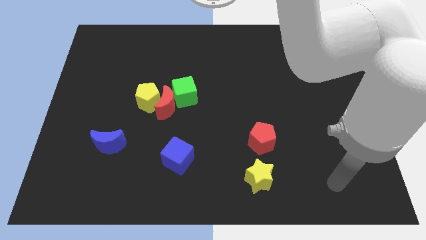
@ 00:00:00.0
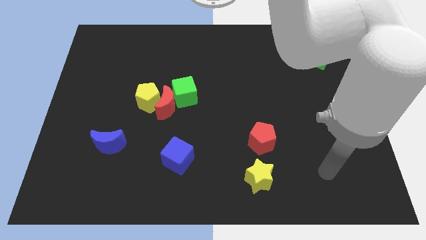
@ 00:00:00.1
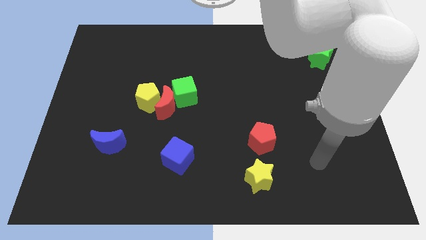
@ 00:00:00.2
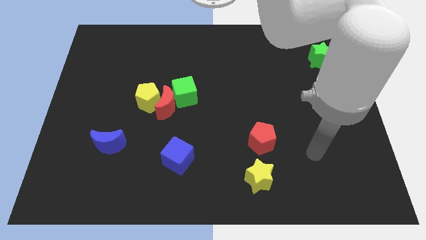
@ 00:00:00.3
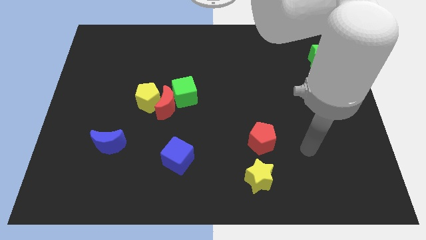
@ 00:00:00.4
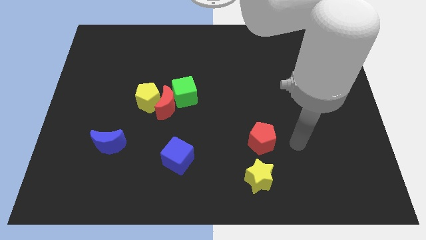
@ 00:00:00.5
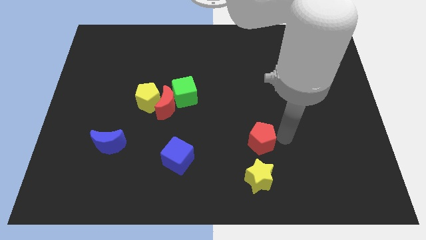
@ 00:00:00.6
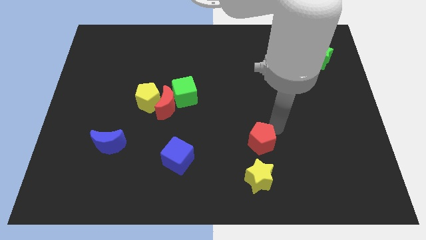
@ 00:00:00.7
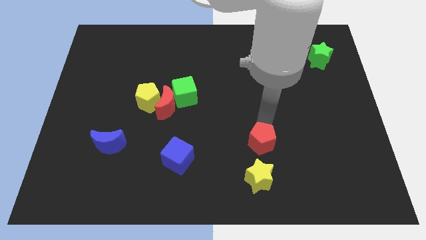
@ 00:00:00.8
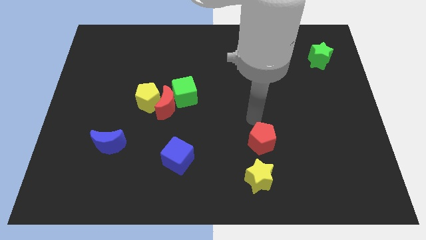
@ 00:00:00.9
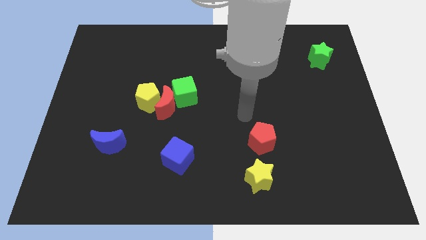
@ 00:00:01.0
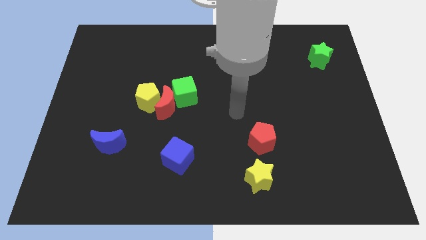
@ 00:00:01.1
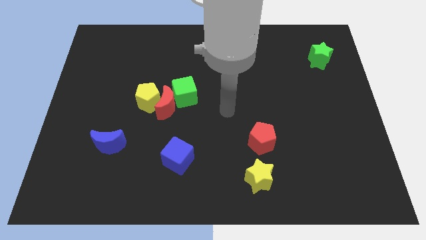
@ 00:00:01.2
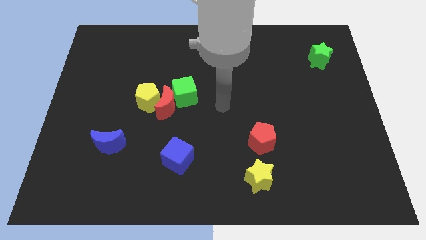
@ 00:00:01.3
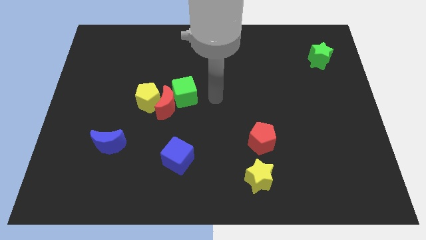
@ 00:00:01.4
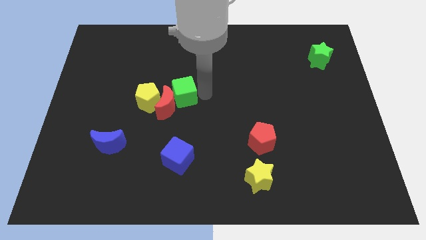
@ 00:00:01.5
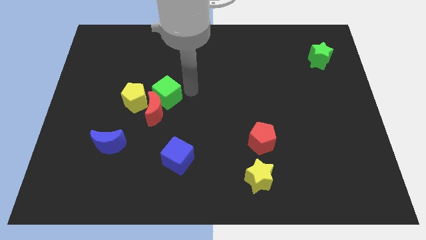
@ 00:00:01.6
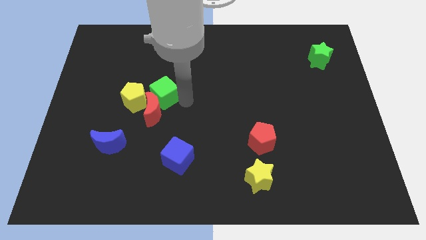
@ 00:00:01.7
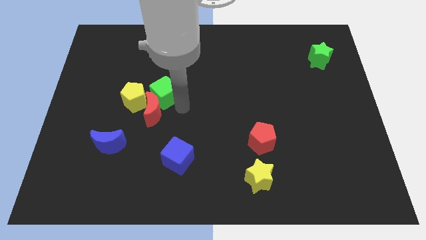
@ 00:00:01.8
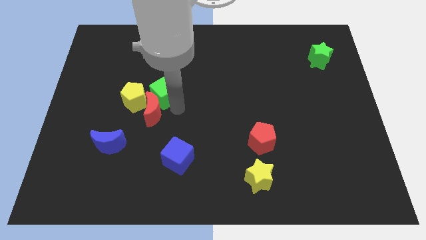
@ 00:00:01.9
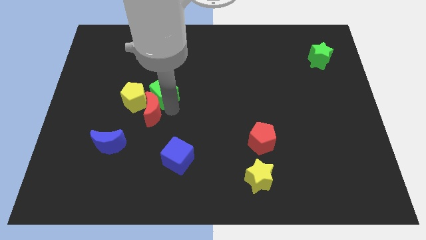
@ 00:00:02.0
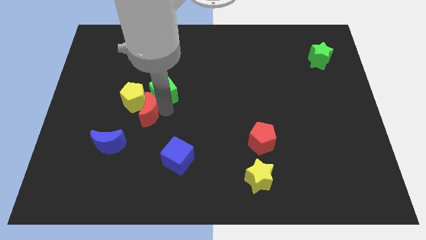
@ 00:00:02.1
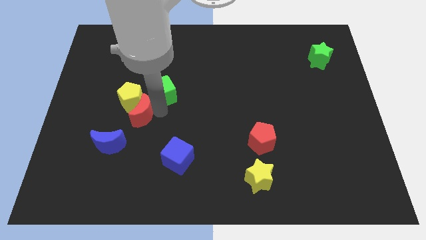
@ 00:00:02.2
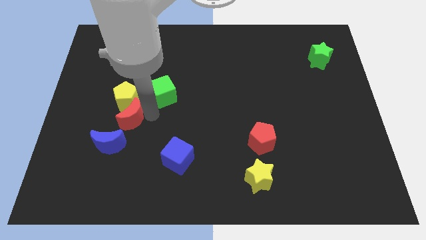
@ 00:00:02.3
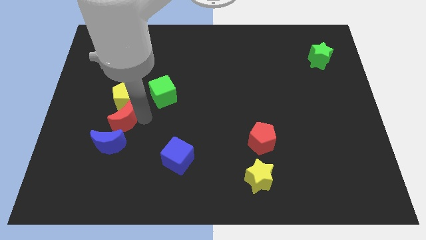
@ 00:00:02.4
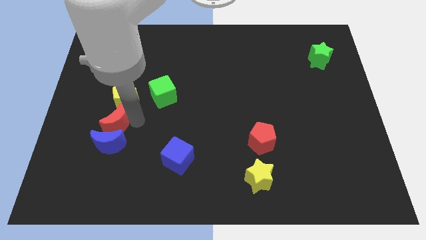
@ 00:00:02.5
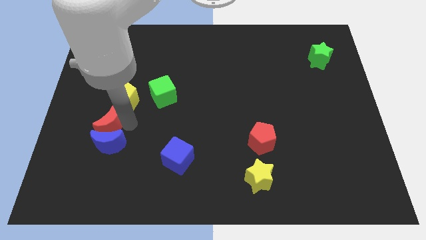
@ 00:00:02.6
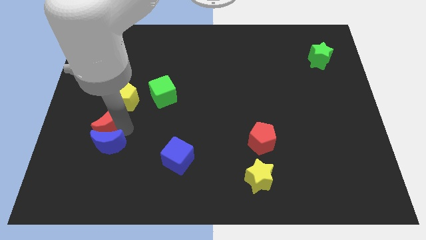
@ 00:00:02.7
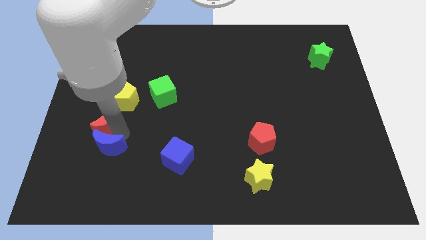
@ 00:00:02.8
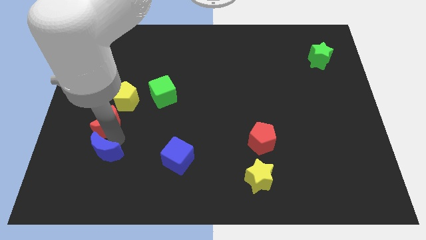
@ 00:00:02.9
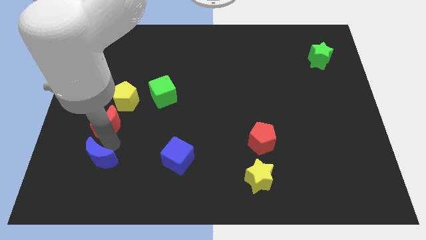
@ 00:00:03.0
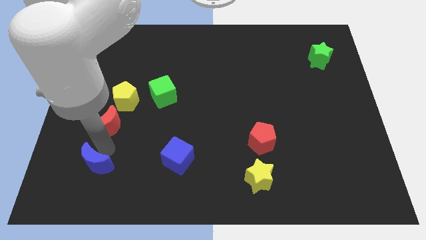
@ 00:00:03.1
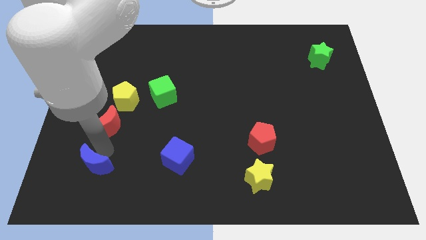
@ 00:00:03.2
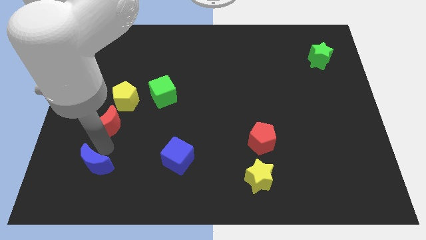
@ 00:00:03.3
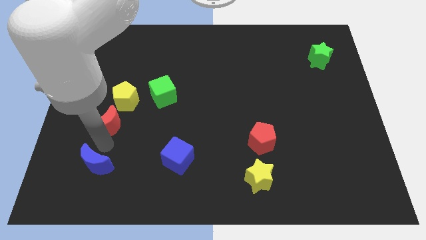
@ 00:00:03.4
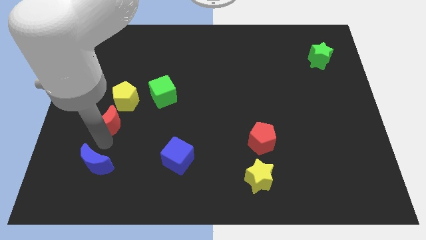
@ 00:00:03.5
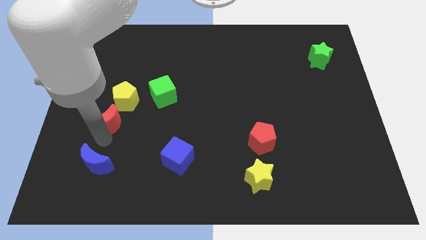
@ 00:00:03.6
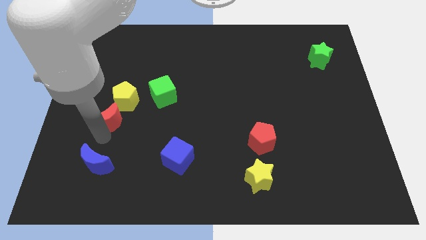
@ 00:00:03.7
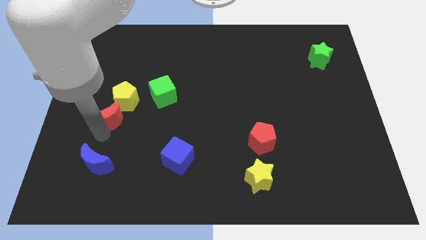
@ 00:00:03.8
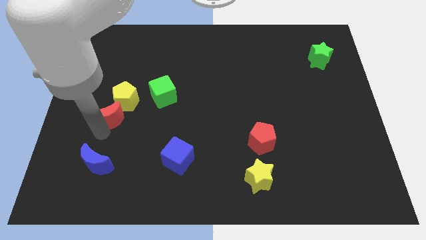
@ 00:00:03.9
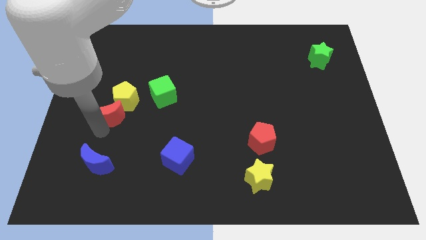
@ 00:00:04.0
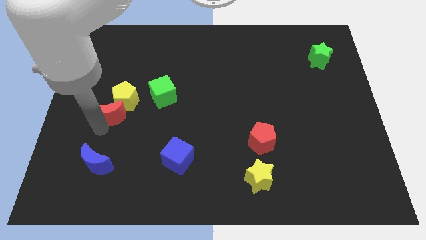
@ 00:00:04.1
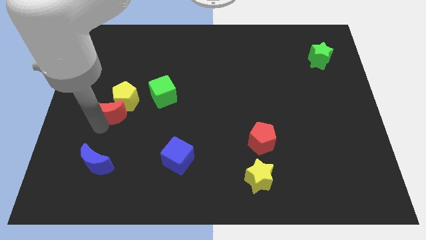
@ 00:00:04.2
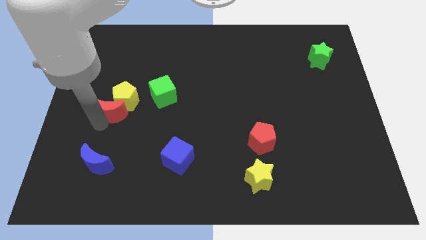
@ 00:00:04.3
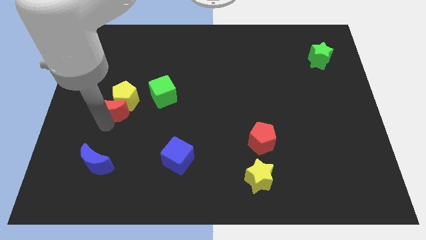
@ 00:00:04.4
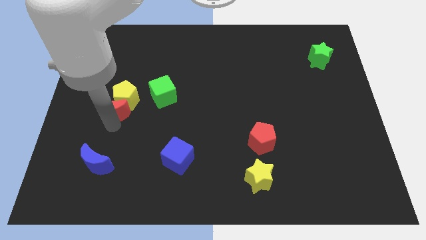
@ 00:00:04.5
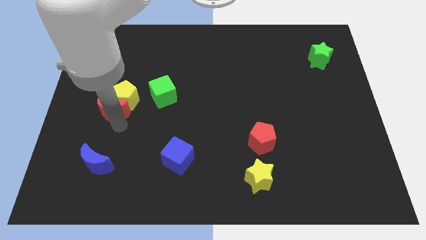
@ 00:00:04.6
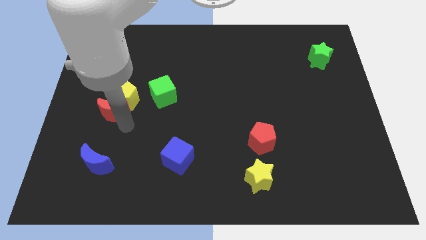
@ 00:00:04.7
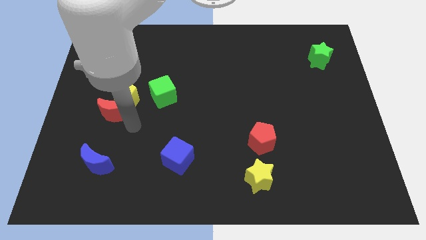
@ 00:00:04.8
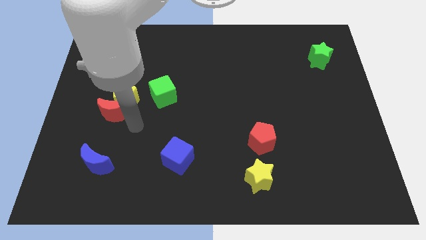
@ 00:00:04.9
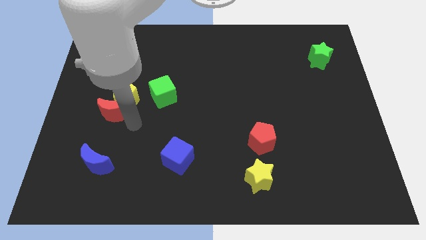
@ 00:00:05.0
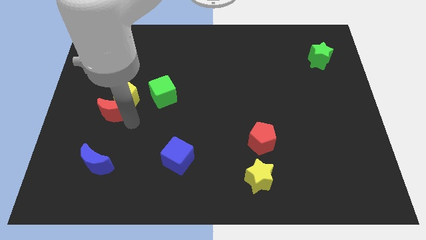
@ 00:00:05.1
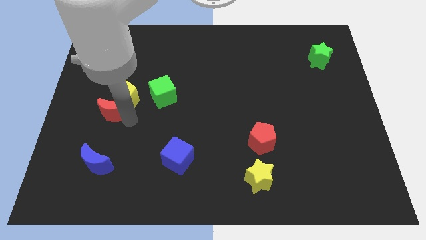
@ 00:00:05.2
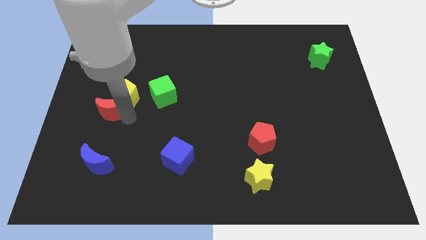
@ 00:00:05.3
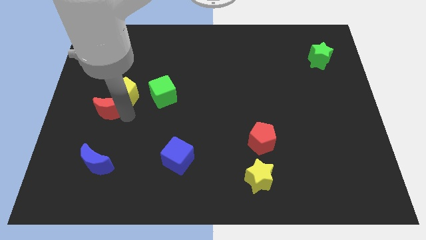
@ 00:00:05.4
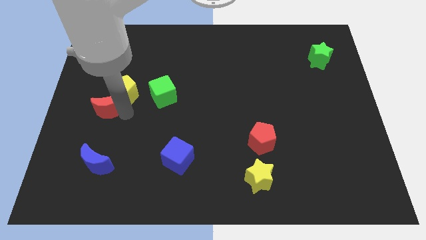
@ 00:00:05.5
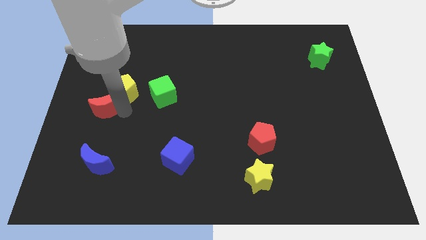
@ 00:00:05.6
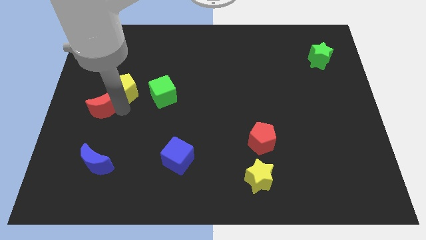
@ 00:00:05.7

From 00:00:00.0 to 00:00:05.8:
slide the red moon to the center left

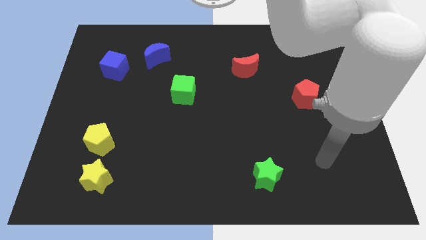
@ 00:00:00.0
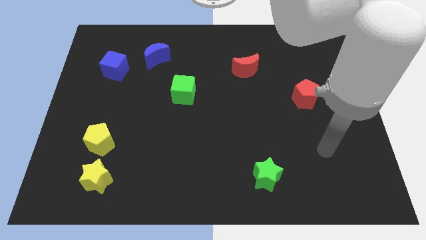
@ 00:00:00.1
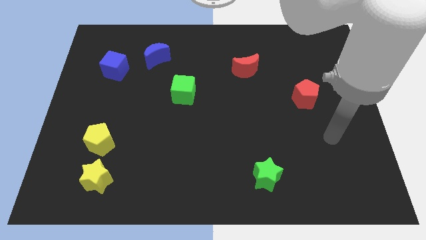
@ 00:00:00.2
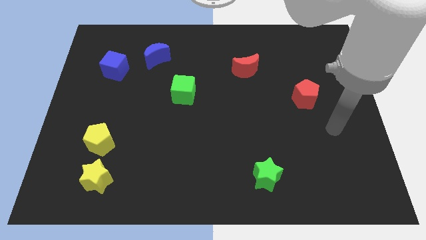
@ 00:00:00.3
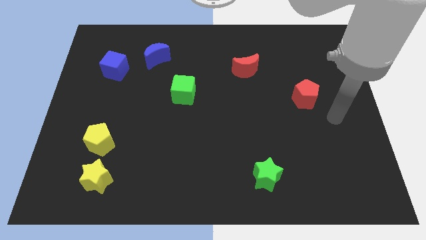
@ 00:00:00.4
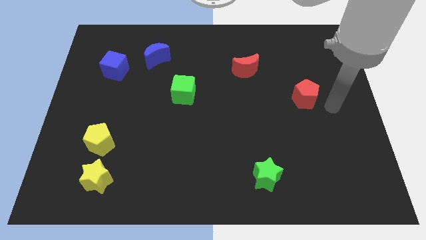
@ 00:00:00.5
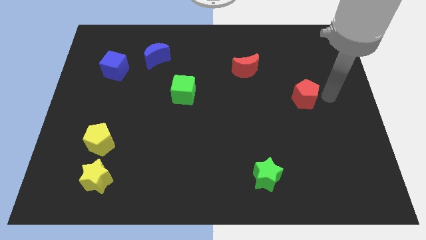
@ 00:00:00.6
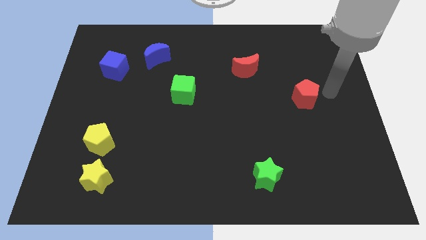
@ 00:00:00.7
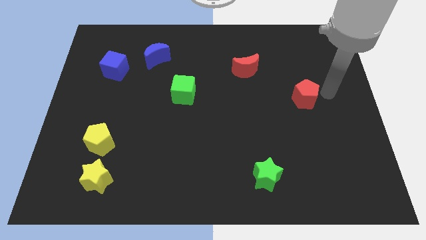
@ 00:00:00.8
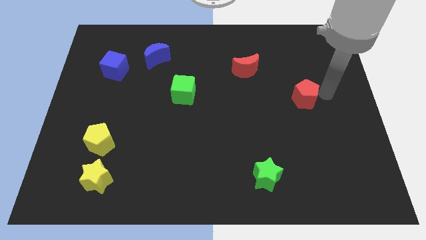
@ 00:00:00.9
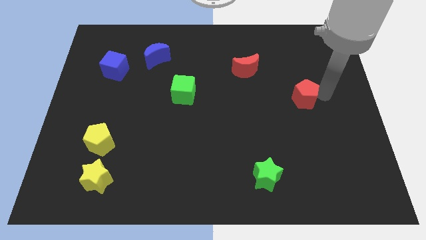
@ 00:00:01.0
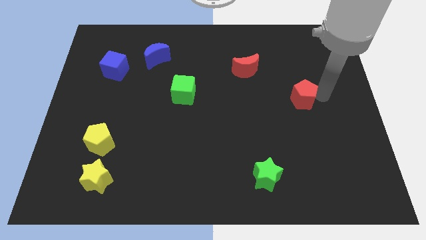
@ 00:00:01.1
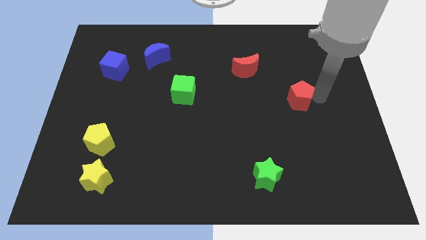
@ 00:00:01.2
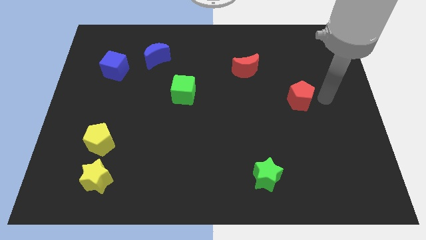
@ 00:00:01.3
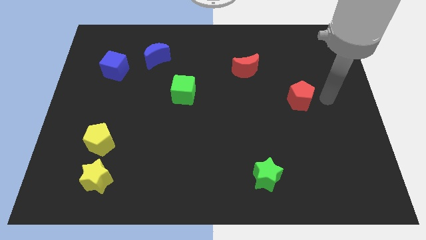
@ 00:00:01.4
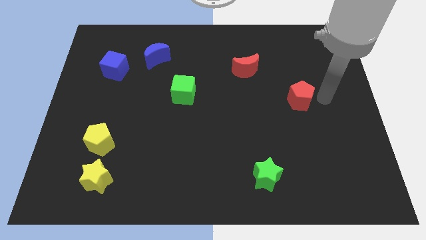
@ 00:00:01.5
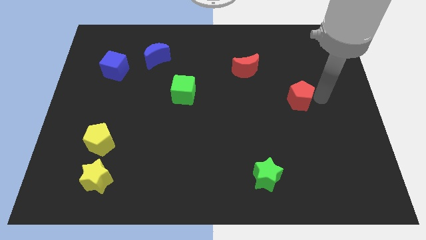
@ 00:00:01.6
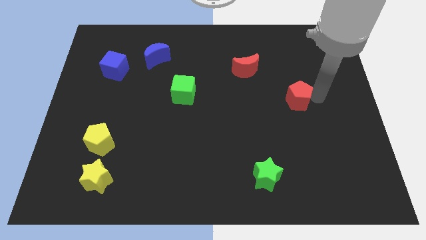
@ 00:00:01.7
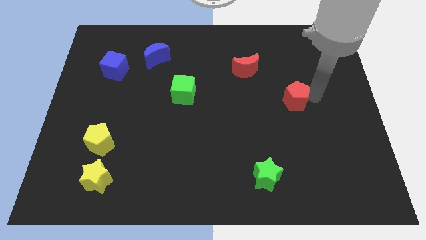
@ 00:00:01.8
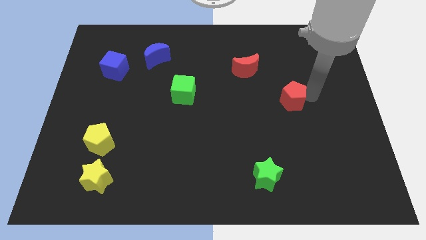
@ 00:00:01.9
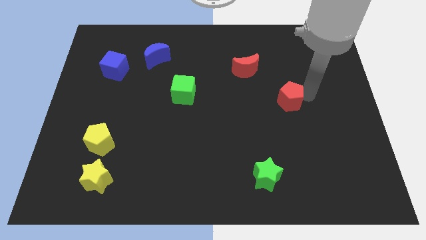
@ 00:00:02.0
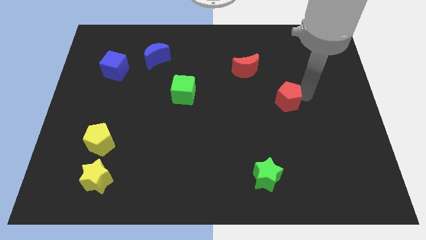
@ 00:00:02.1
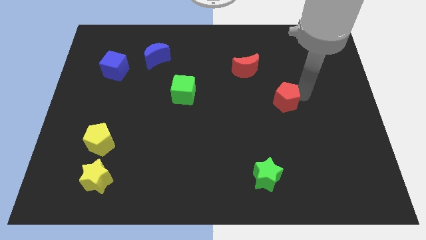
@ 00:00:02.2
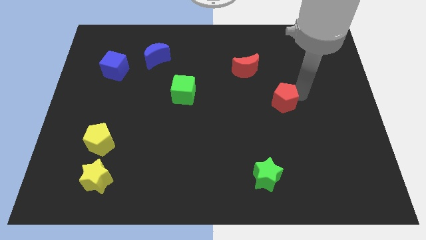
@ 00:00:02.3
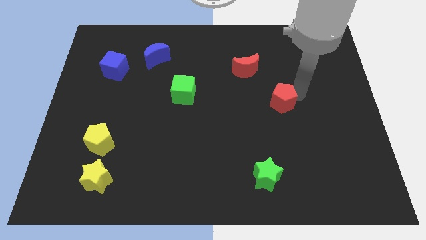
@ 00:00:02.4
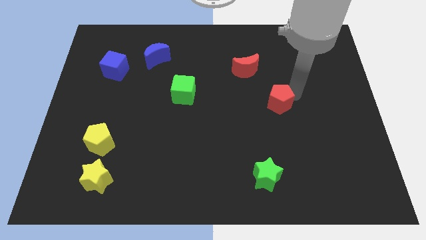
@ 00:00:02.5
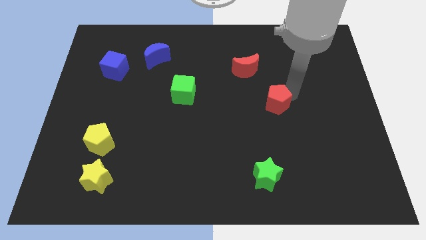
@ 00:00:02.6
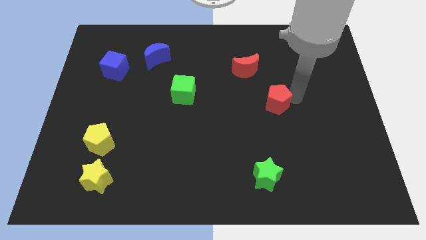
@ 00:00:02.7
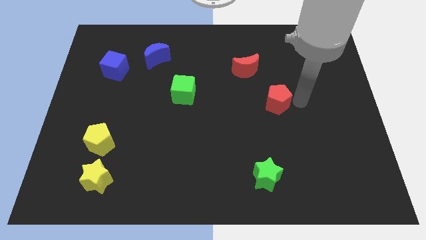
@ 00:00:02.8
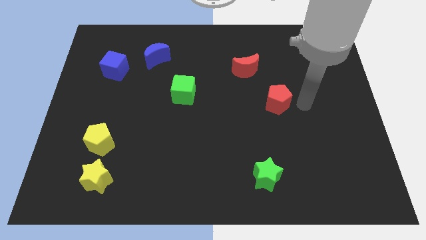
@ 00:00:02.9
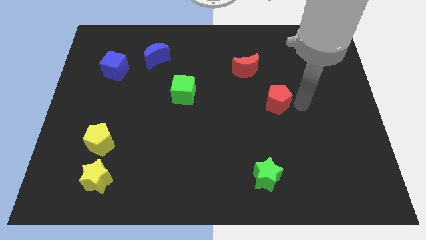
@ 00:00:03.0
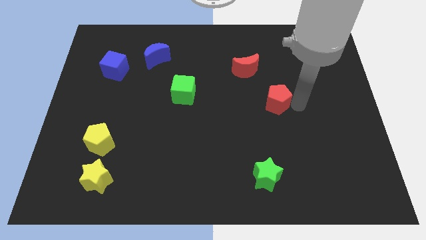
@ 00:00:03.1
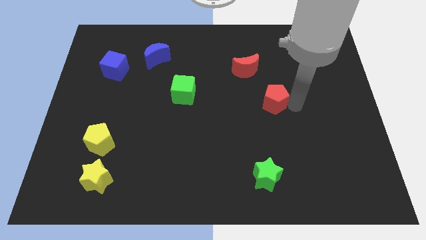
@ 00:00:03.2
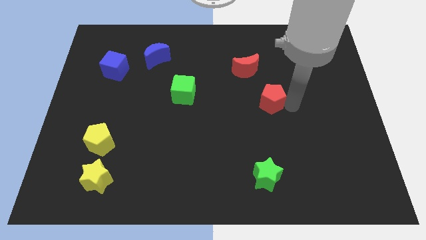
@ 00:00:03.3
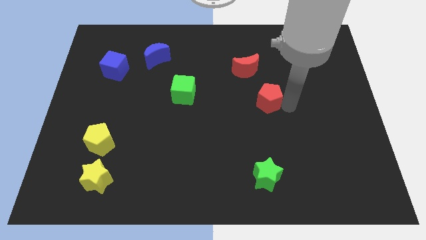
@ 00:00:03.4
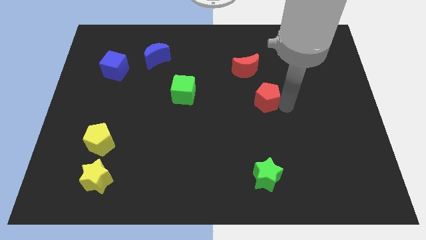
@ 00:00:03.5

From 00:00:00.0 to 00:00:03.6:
move the red pentagon to the middle of the board
